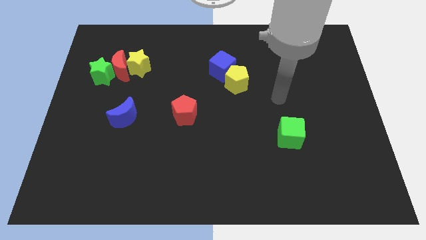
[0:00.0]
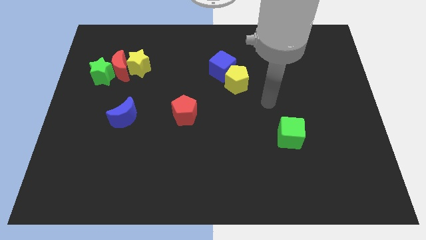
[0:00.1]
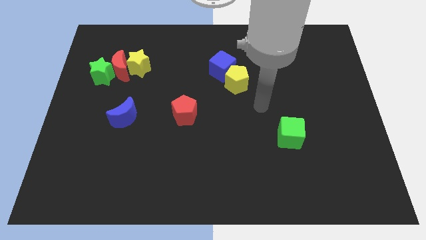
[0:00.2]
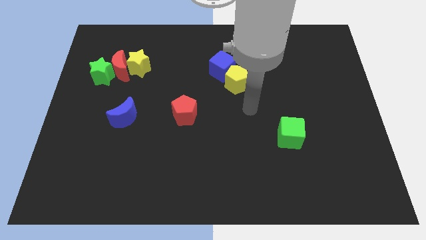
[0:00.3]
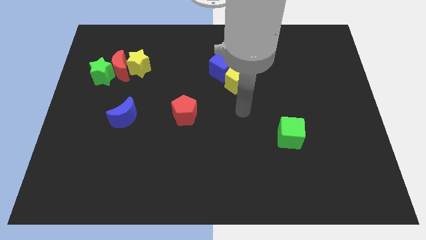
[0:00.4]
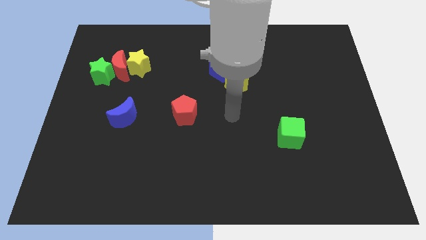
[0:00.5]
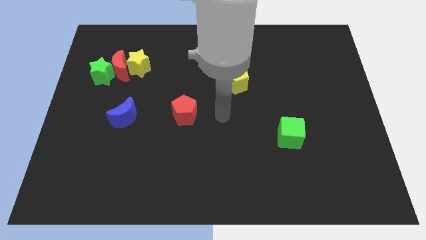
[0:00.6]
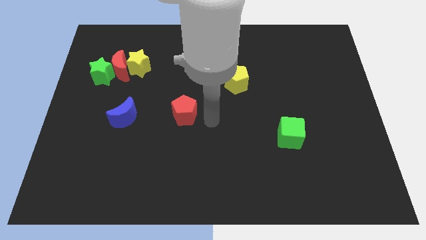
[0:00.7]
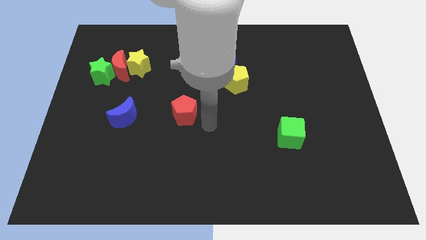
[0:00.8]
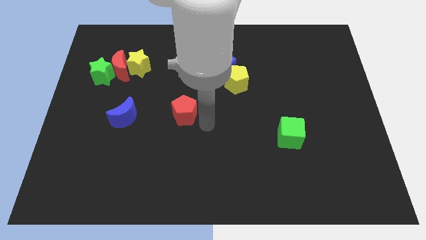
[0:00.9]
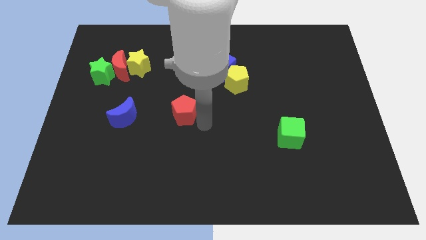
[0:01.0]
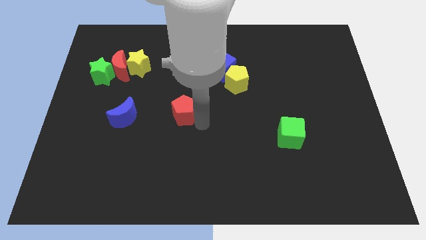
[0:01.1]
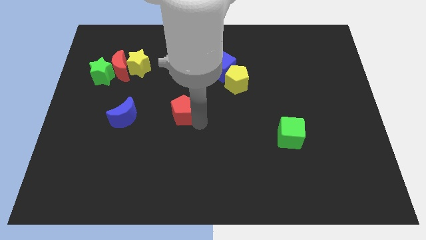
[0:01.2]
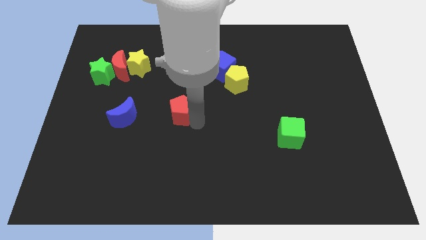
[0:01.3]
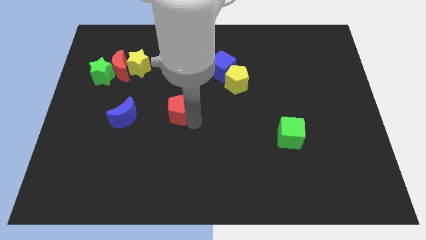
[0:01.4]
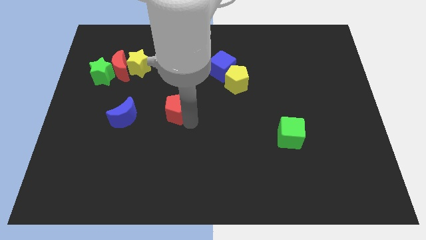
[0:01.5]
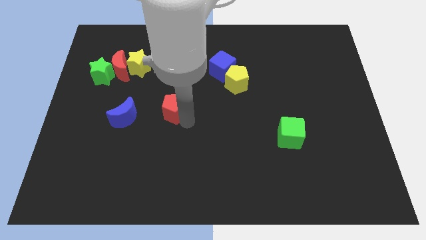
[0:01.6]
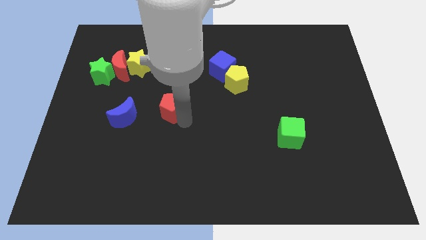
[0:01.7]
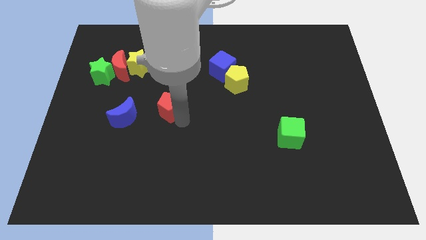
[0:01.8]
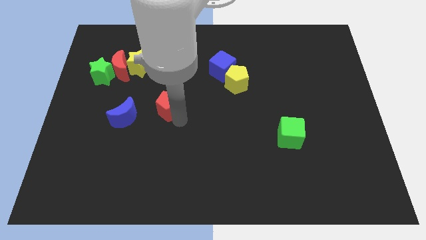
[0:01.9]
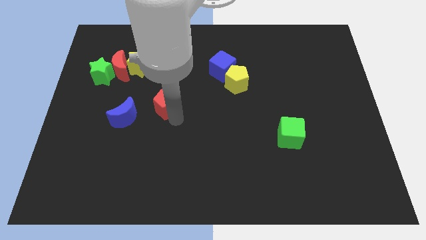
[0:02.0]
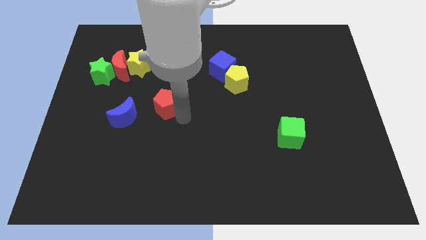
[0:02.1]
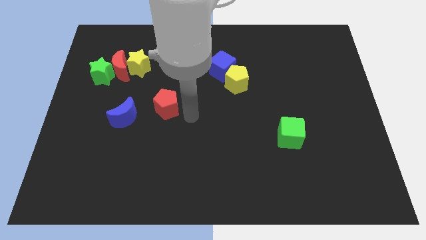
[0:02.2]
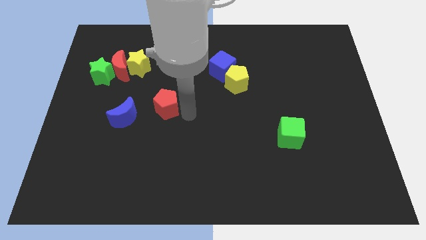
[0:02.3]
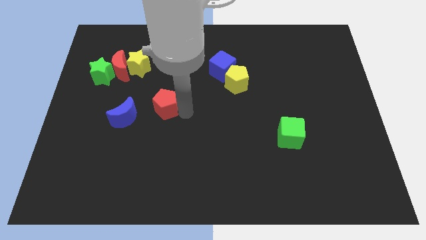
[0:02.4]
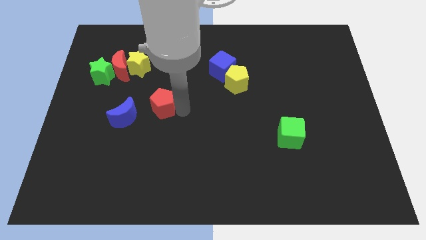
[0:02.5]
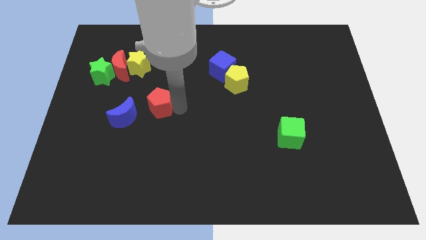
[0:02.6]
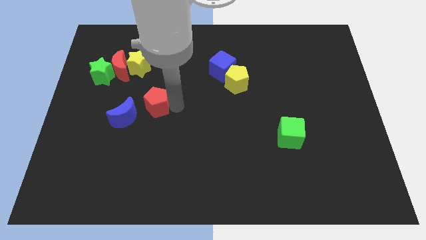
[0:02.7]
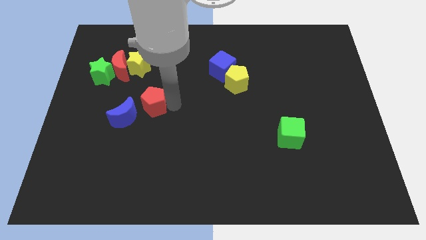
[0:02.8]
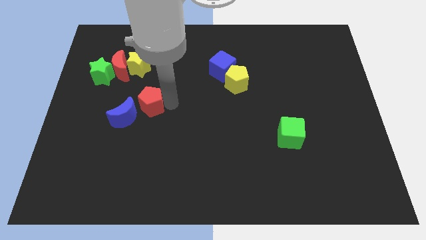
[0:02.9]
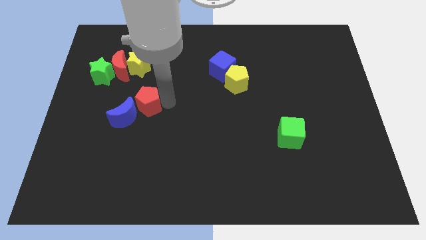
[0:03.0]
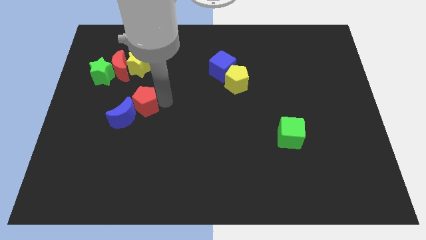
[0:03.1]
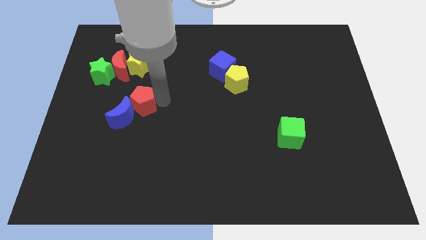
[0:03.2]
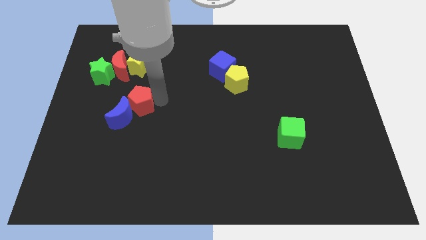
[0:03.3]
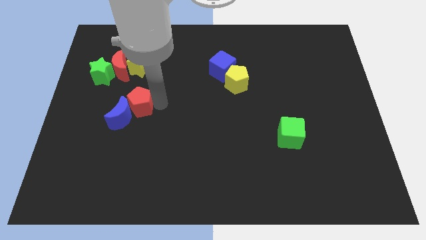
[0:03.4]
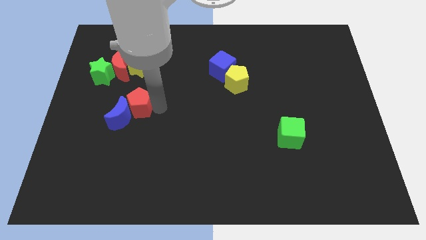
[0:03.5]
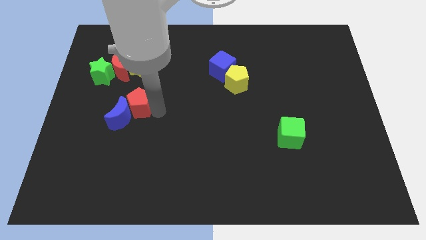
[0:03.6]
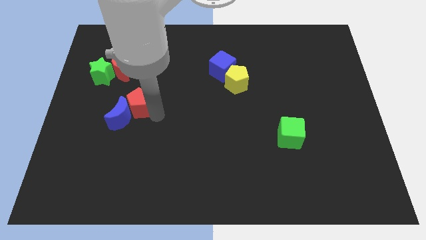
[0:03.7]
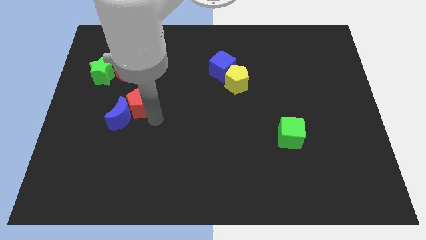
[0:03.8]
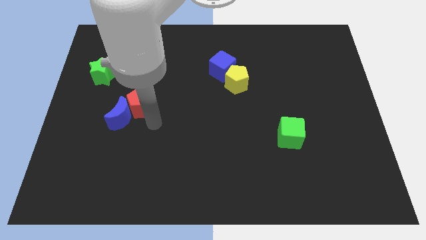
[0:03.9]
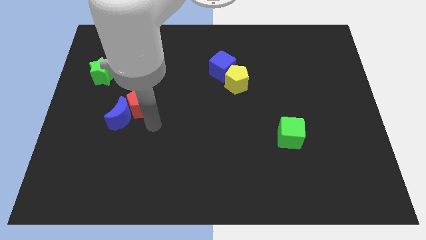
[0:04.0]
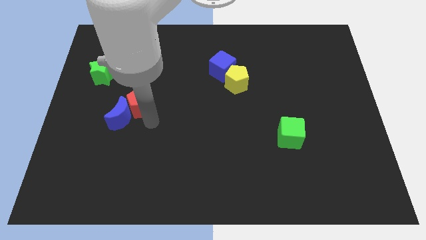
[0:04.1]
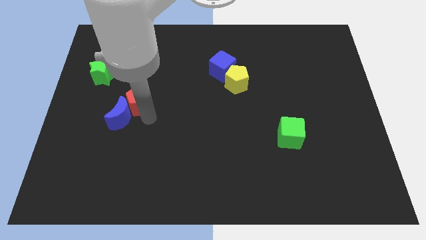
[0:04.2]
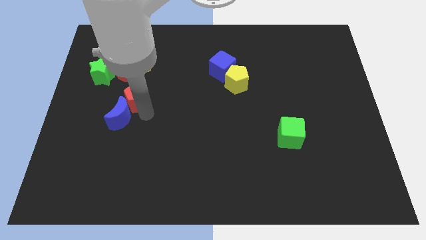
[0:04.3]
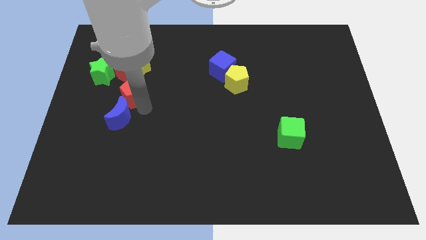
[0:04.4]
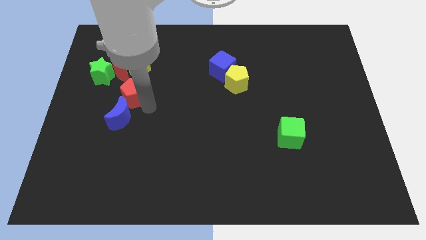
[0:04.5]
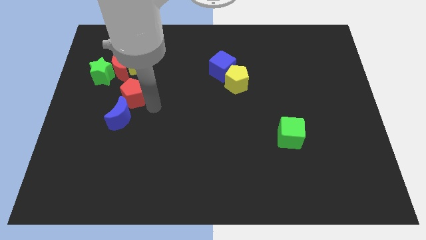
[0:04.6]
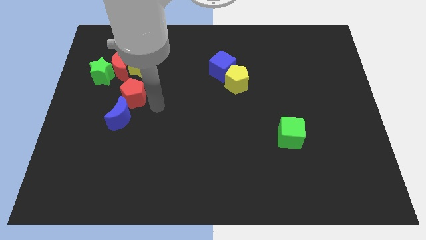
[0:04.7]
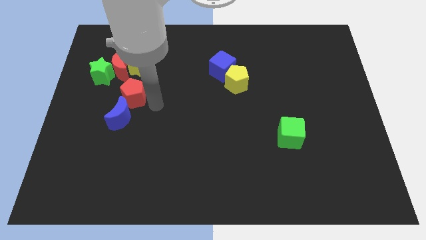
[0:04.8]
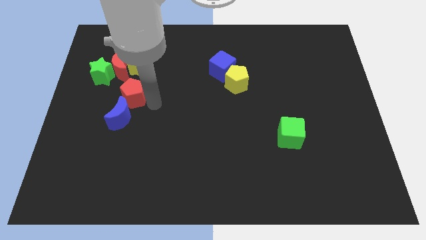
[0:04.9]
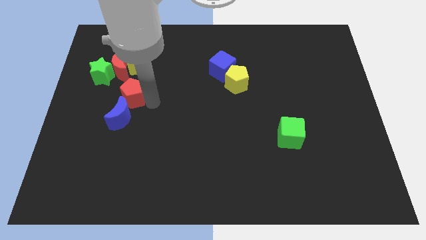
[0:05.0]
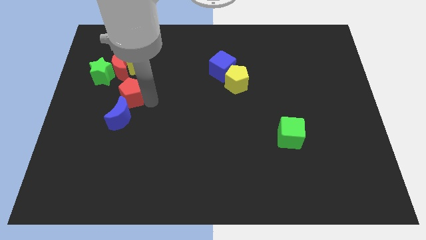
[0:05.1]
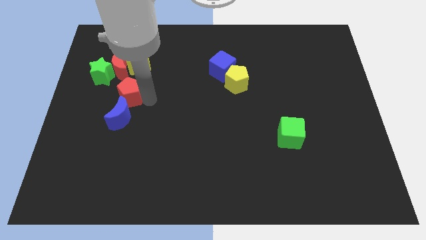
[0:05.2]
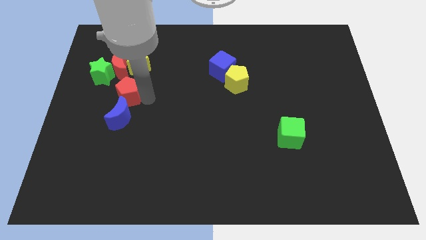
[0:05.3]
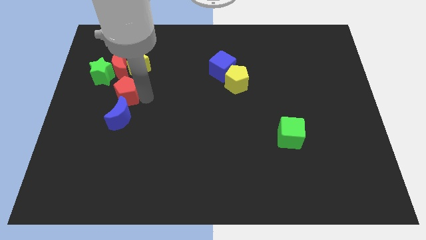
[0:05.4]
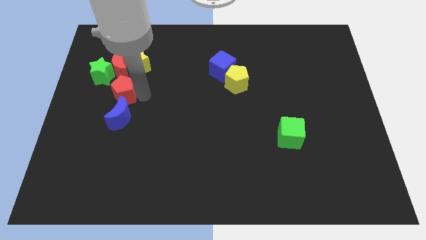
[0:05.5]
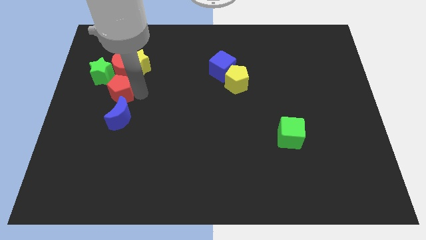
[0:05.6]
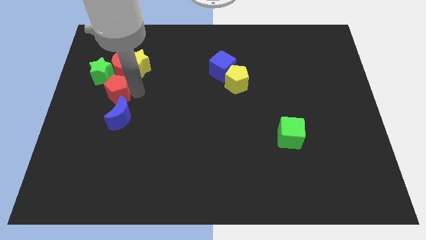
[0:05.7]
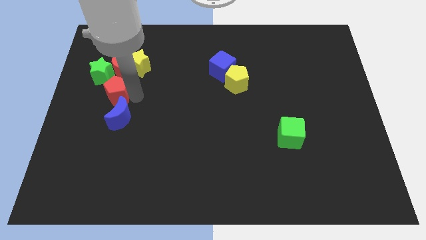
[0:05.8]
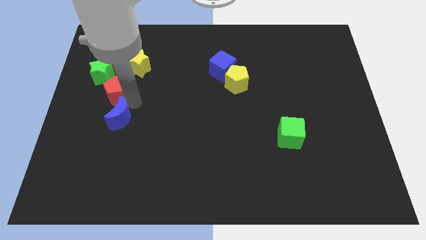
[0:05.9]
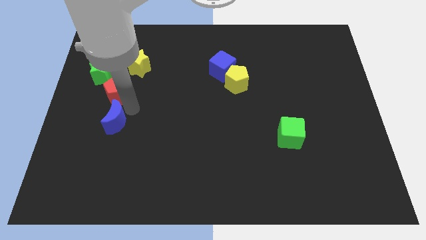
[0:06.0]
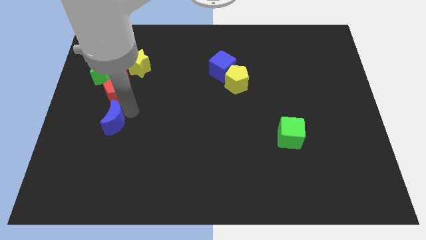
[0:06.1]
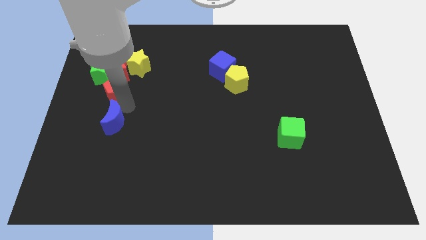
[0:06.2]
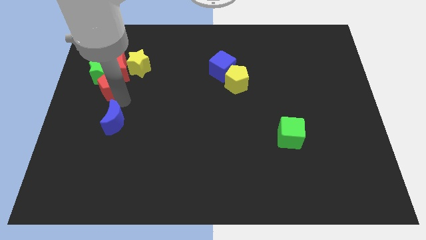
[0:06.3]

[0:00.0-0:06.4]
move the red pentagon close to the green star

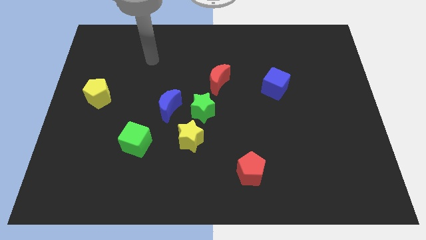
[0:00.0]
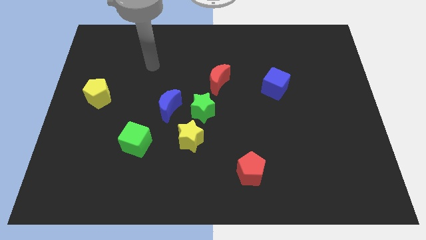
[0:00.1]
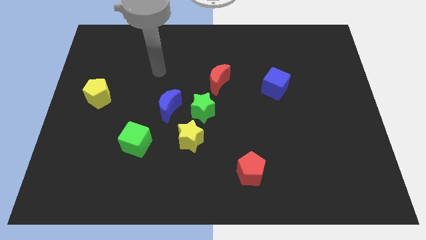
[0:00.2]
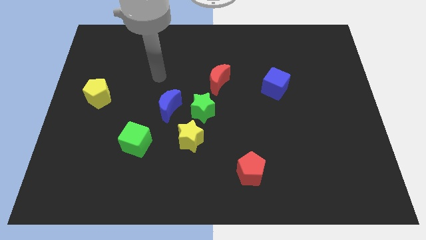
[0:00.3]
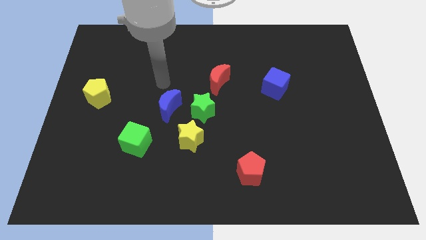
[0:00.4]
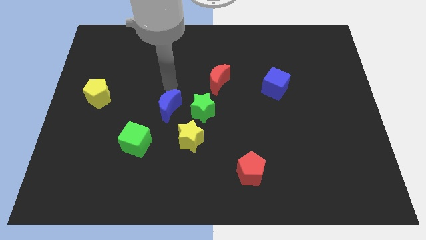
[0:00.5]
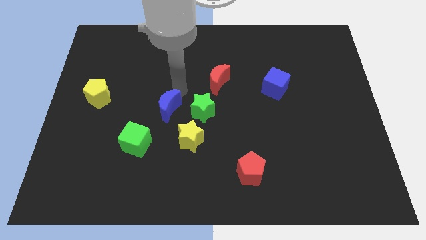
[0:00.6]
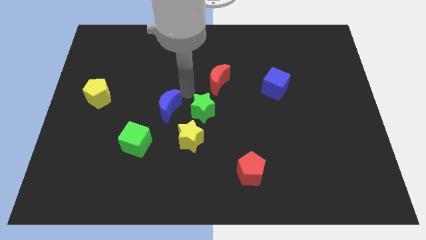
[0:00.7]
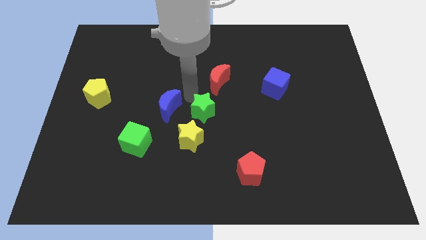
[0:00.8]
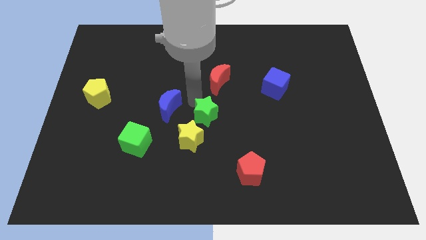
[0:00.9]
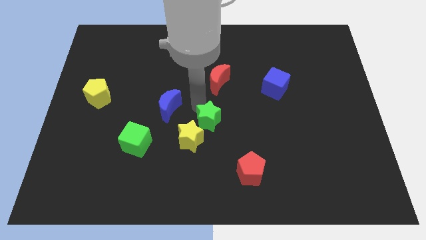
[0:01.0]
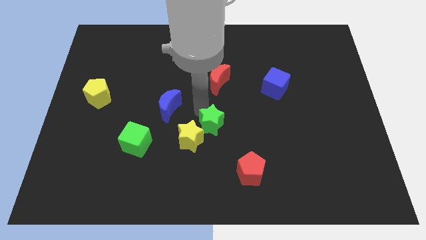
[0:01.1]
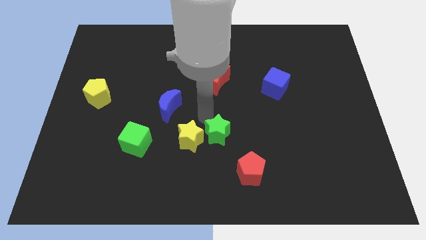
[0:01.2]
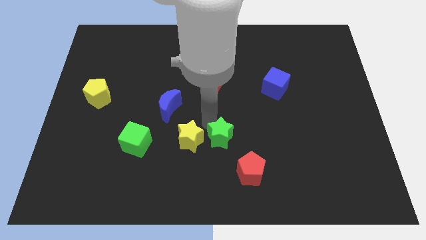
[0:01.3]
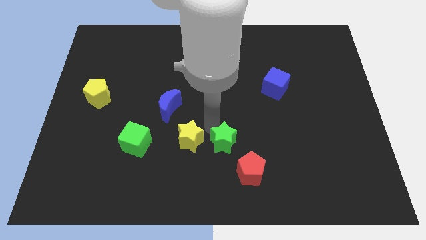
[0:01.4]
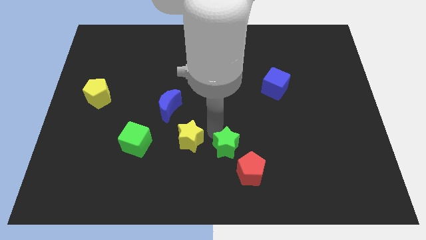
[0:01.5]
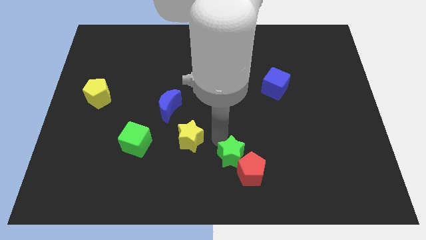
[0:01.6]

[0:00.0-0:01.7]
push the green star towards the red pentagon
